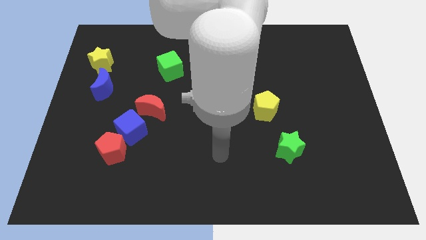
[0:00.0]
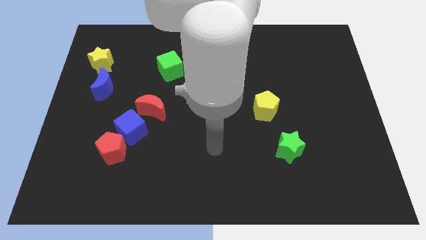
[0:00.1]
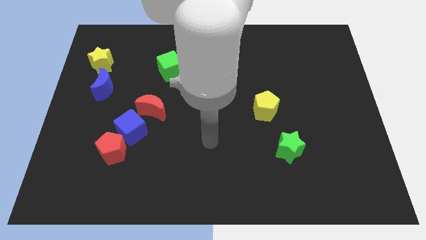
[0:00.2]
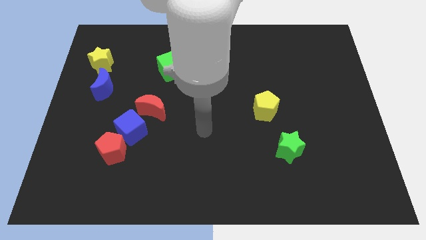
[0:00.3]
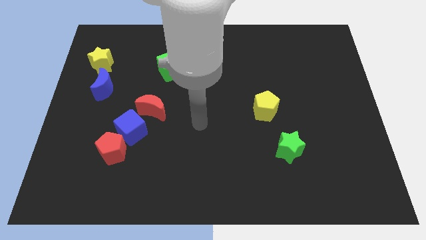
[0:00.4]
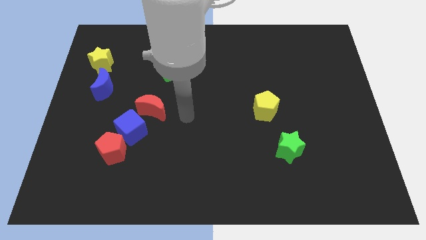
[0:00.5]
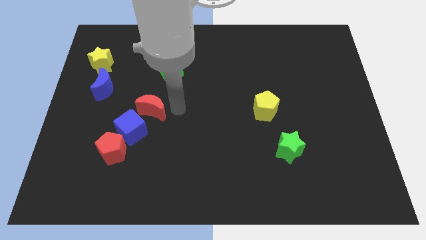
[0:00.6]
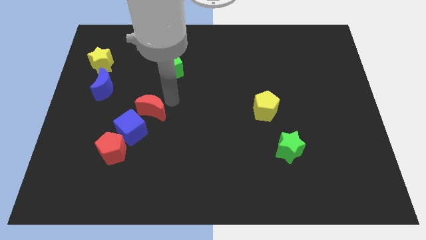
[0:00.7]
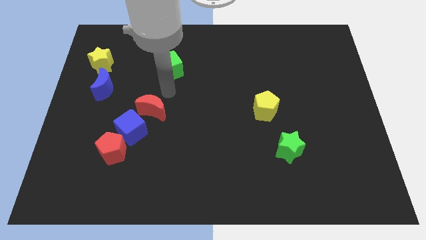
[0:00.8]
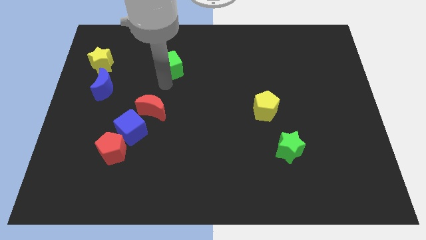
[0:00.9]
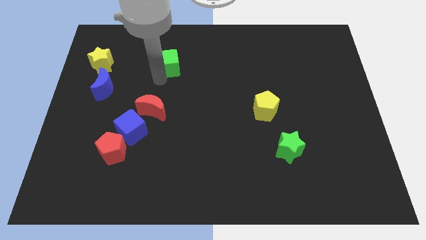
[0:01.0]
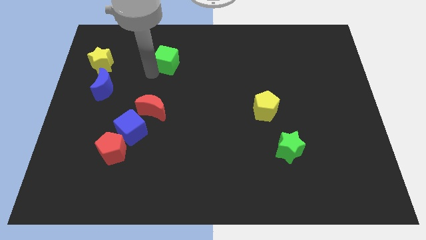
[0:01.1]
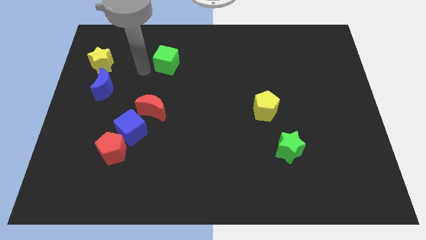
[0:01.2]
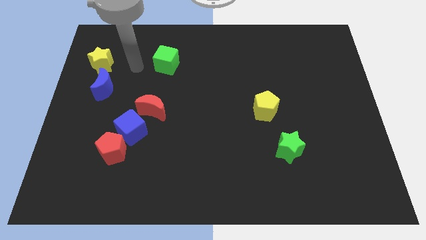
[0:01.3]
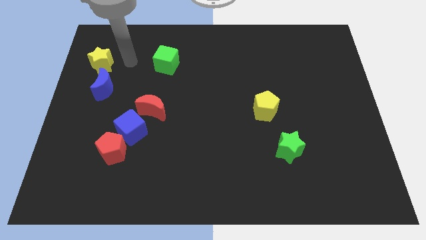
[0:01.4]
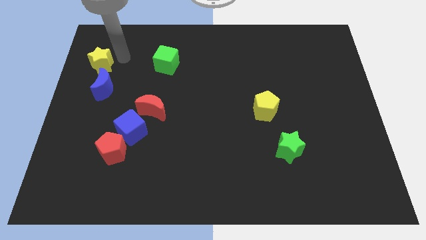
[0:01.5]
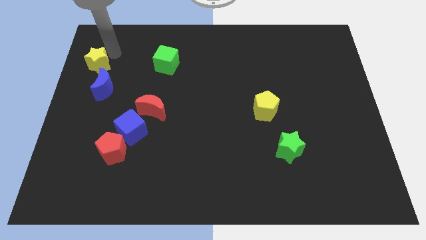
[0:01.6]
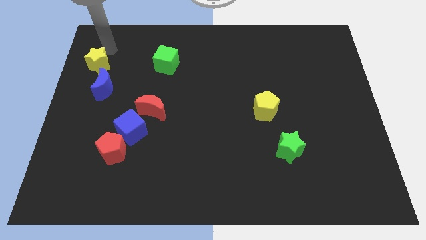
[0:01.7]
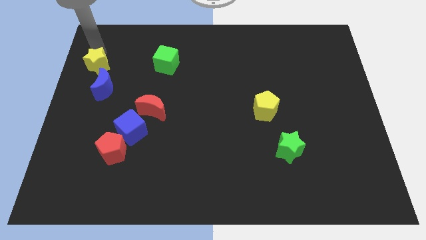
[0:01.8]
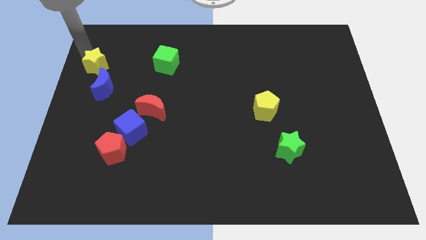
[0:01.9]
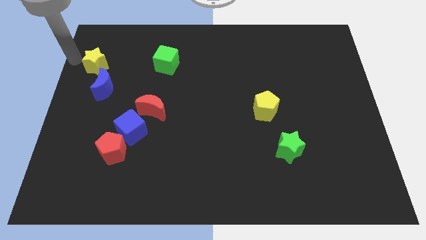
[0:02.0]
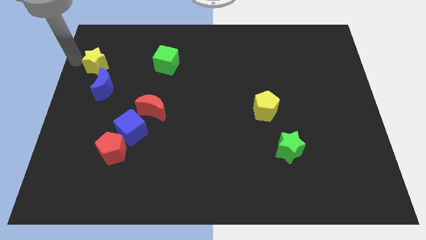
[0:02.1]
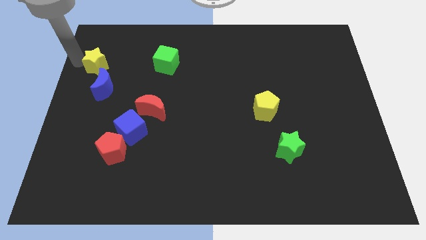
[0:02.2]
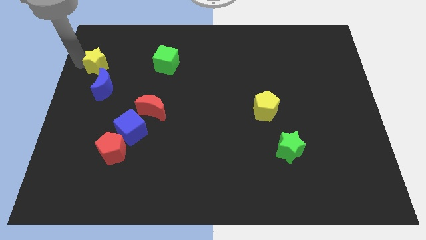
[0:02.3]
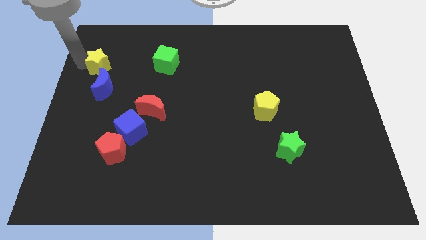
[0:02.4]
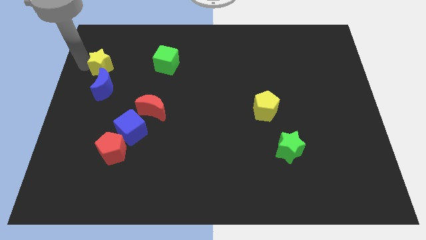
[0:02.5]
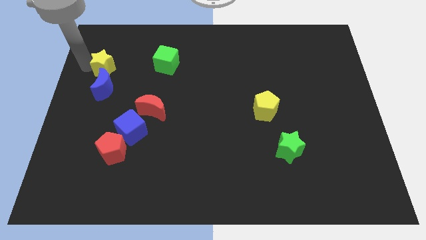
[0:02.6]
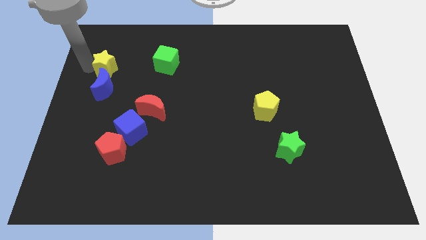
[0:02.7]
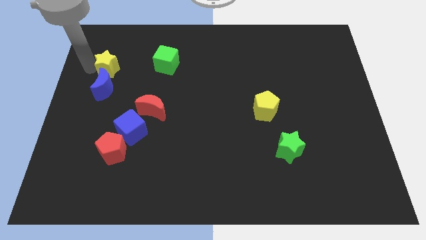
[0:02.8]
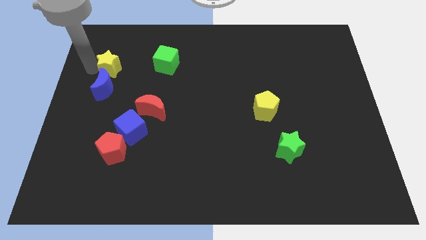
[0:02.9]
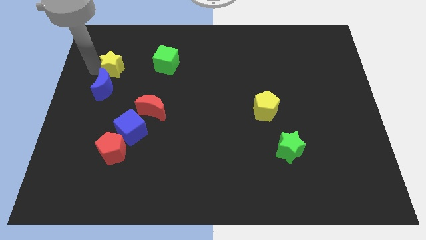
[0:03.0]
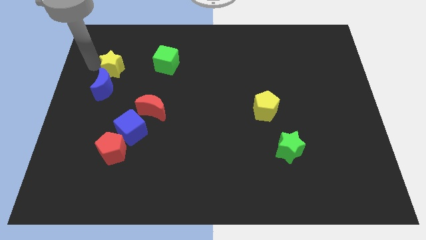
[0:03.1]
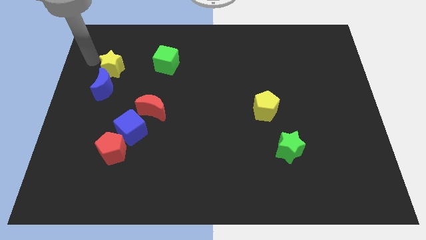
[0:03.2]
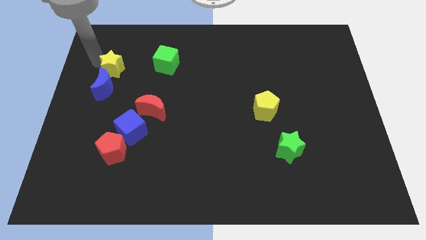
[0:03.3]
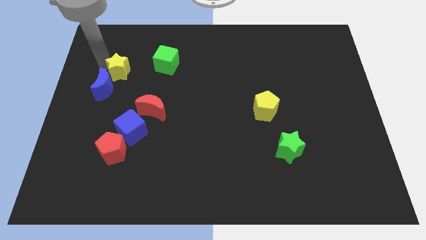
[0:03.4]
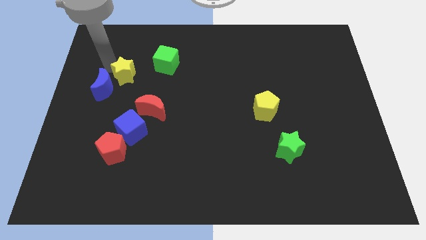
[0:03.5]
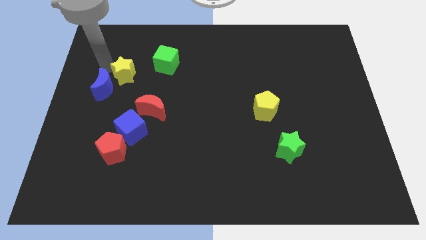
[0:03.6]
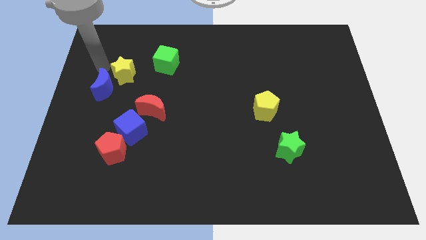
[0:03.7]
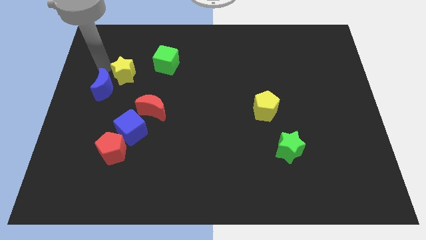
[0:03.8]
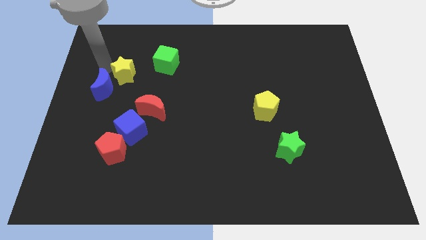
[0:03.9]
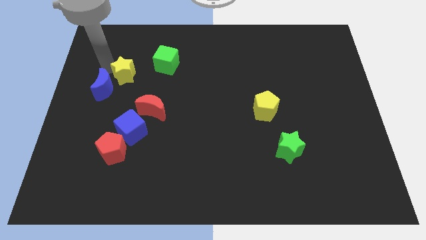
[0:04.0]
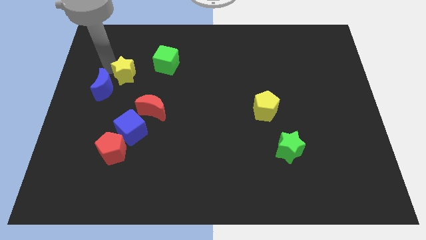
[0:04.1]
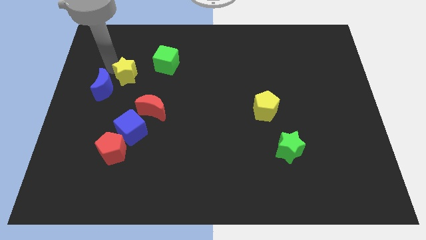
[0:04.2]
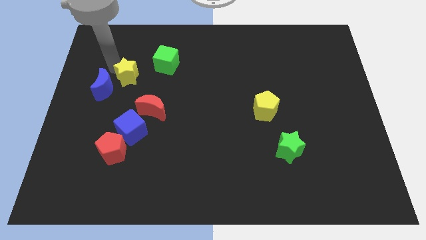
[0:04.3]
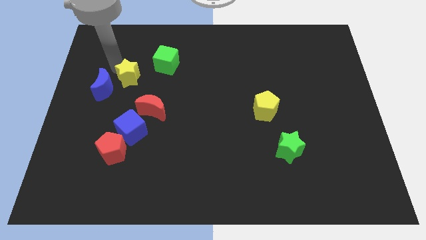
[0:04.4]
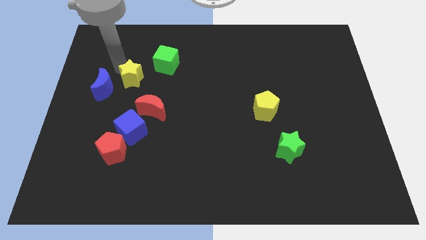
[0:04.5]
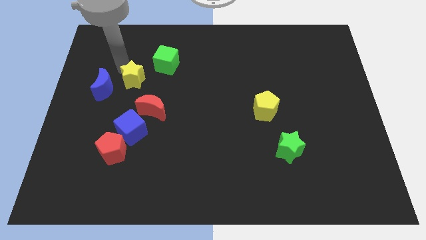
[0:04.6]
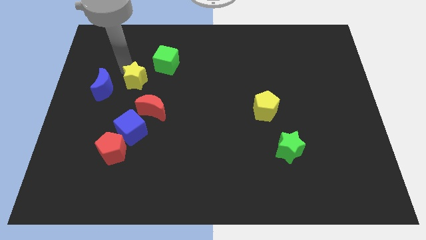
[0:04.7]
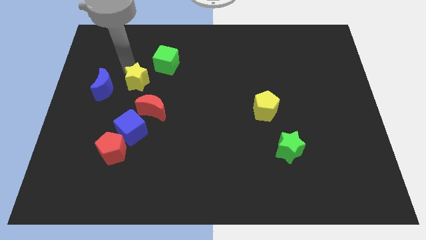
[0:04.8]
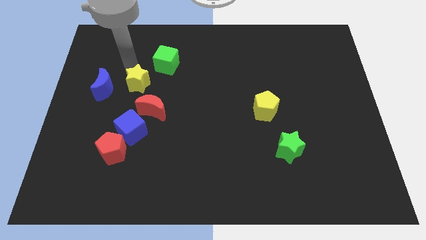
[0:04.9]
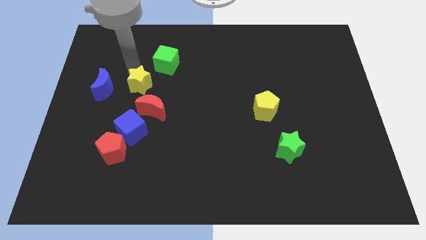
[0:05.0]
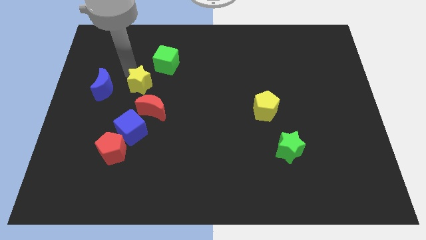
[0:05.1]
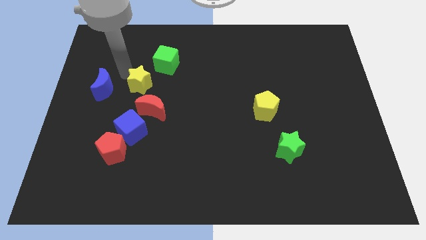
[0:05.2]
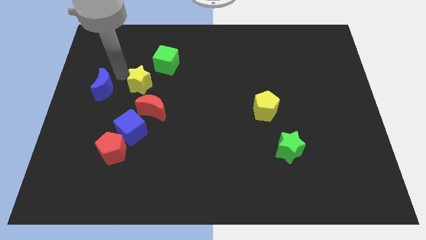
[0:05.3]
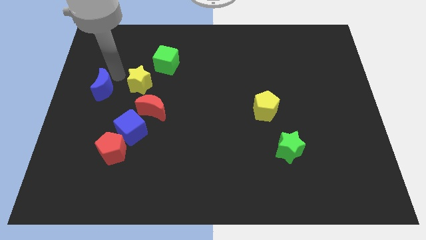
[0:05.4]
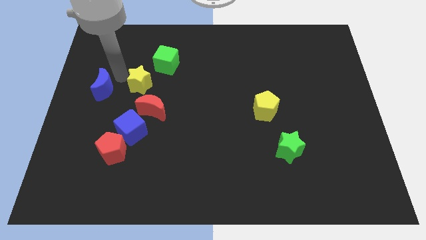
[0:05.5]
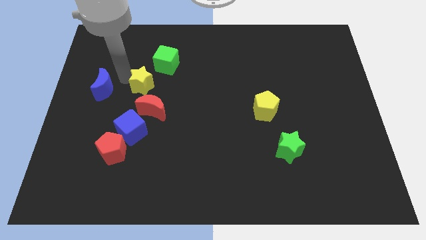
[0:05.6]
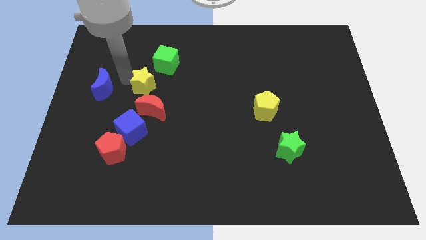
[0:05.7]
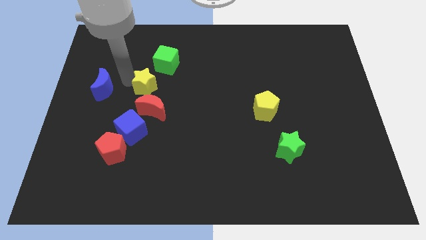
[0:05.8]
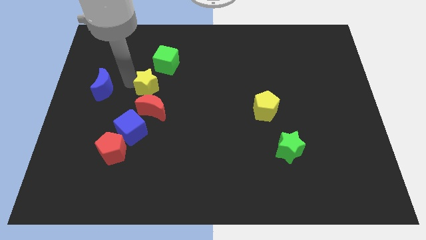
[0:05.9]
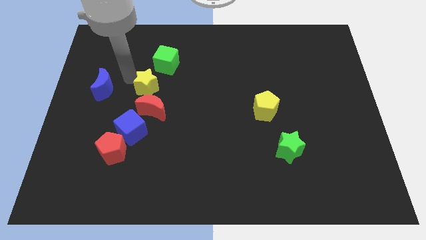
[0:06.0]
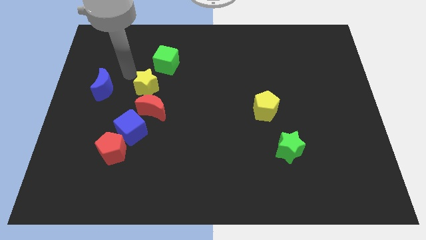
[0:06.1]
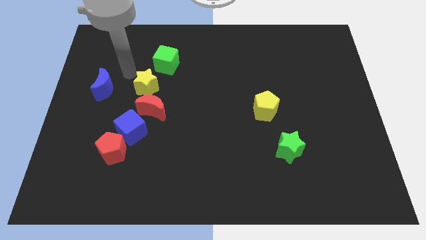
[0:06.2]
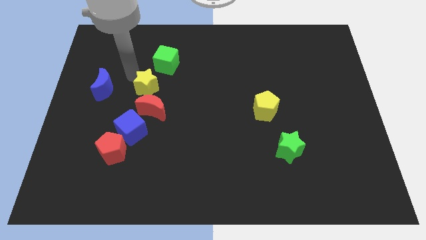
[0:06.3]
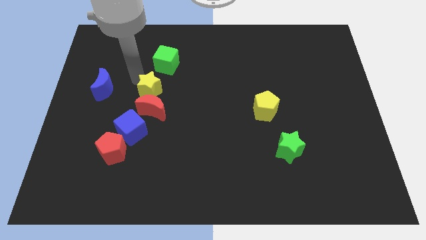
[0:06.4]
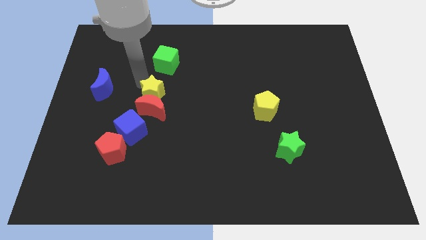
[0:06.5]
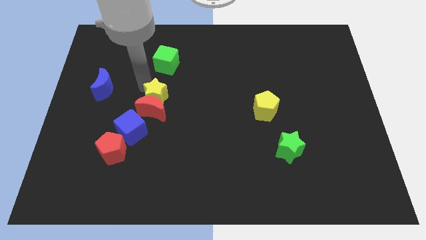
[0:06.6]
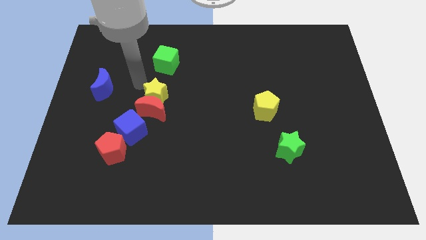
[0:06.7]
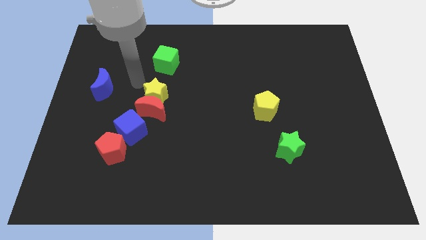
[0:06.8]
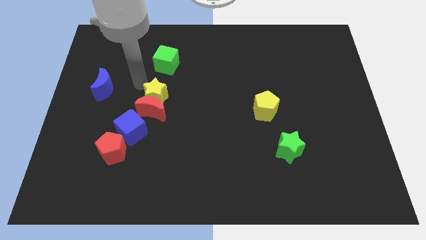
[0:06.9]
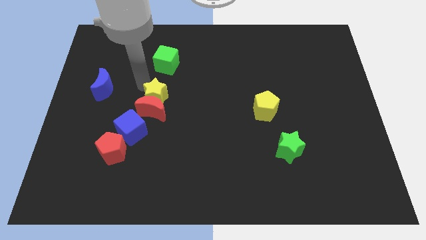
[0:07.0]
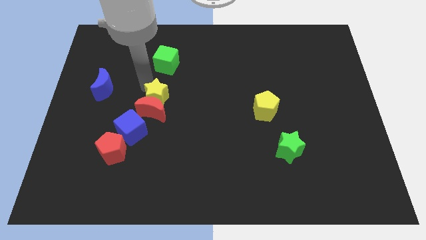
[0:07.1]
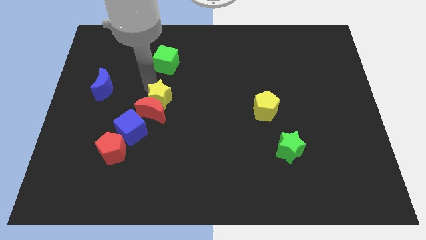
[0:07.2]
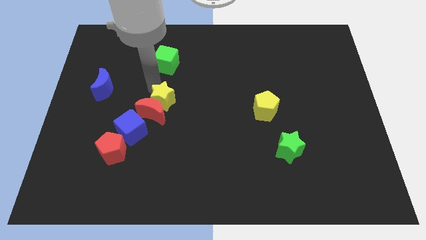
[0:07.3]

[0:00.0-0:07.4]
move the yellow star downwards and to the right

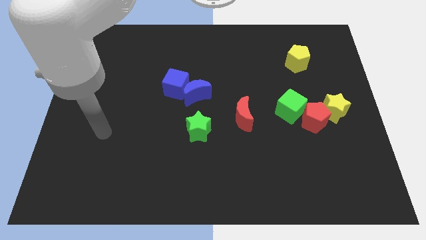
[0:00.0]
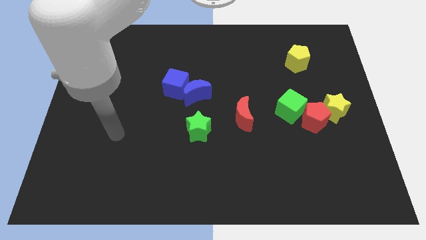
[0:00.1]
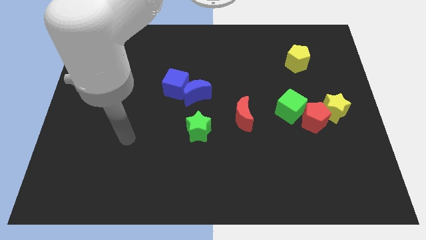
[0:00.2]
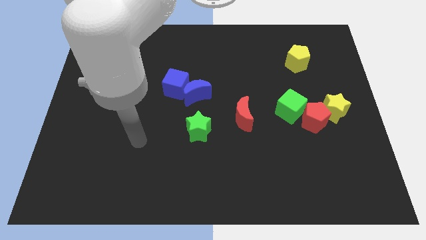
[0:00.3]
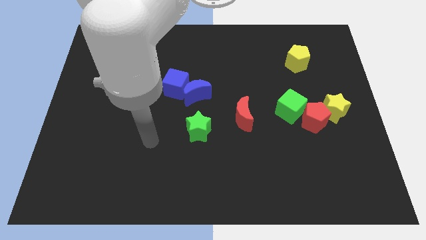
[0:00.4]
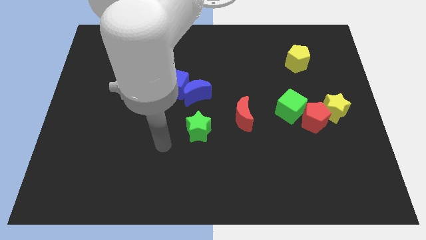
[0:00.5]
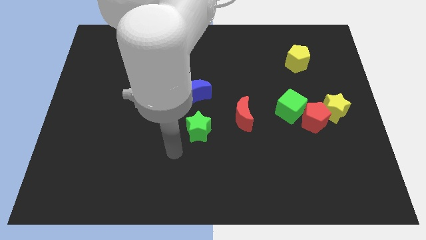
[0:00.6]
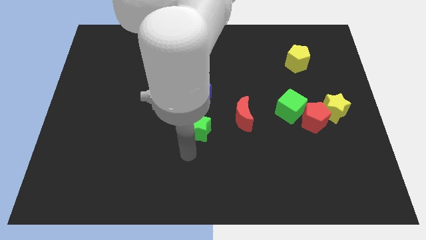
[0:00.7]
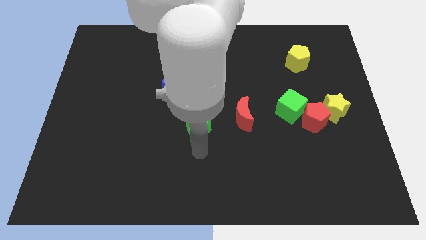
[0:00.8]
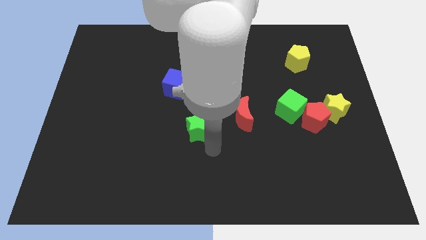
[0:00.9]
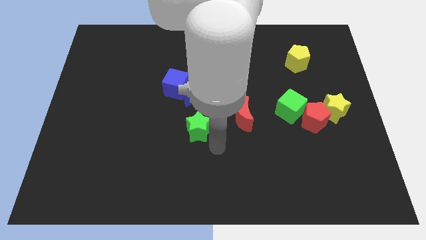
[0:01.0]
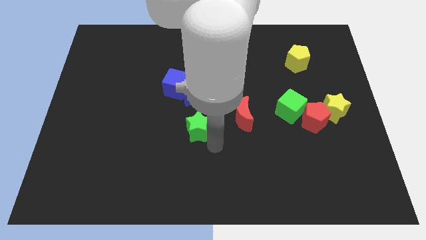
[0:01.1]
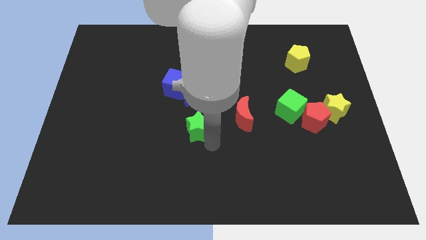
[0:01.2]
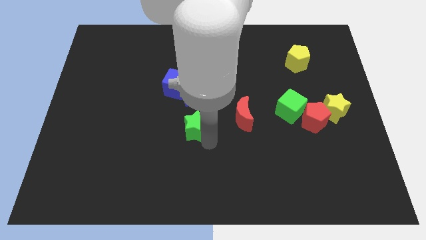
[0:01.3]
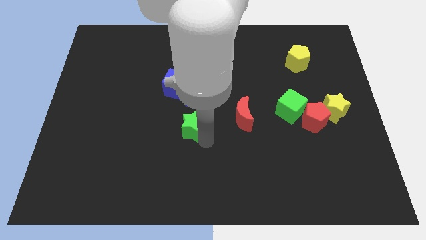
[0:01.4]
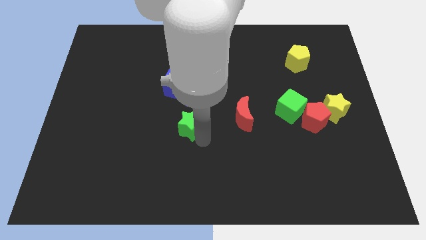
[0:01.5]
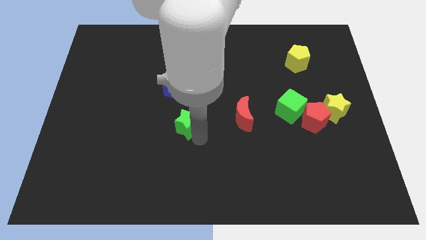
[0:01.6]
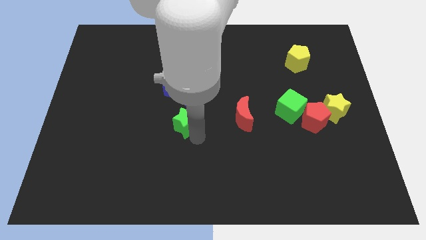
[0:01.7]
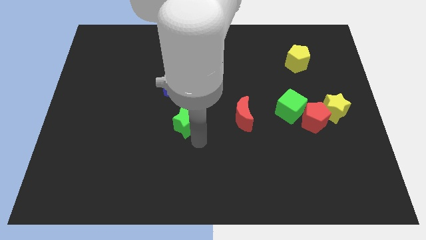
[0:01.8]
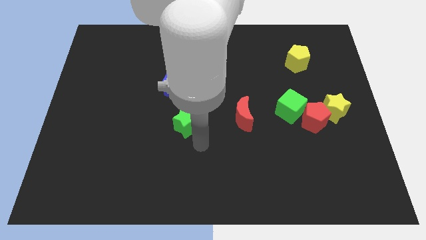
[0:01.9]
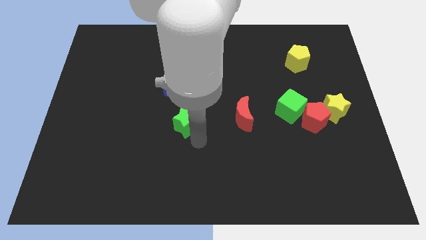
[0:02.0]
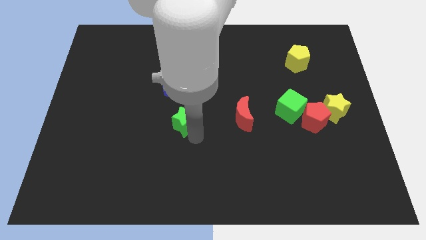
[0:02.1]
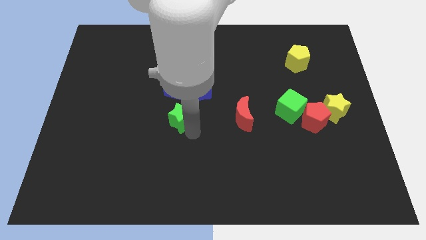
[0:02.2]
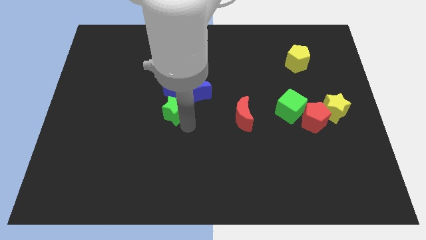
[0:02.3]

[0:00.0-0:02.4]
push the green star up and to the left diagonally a little
